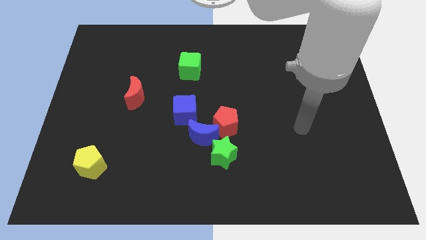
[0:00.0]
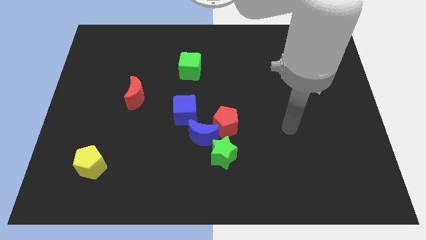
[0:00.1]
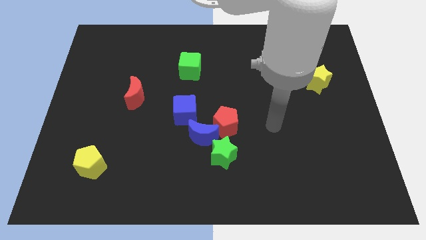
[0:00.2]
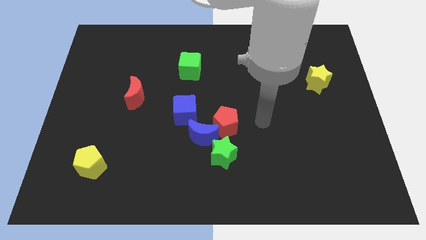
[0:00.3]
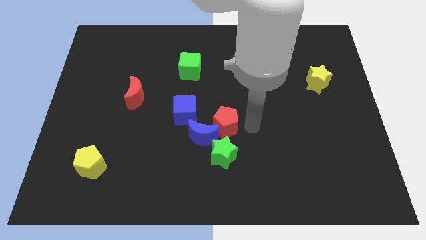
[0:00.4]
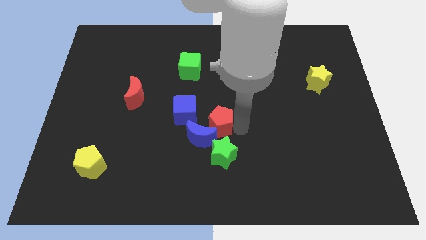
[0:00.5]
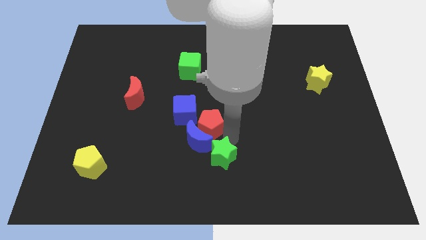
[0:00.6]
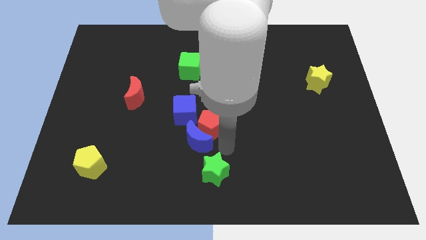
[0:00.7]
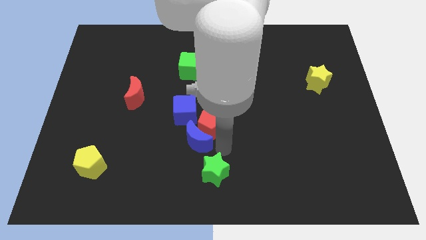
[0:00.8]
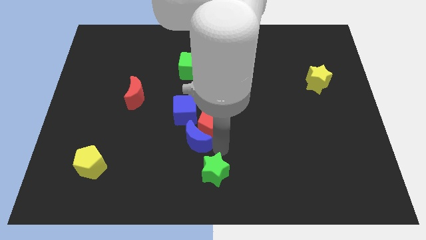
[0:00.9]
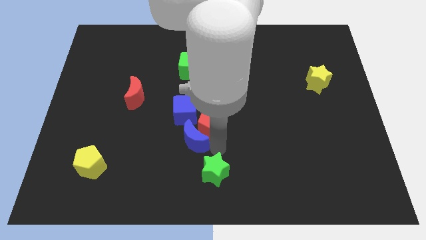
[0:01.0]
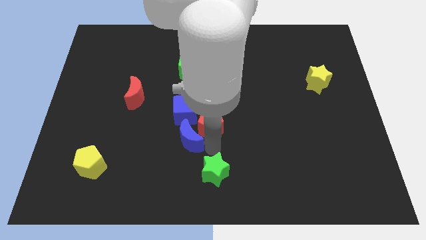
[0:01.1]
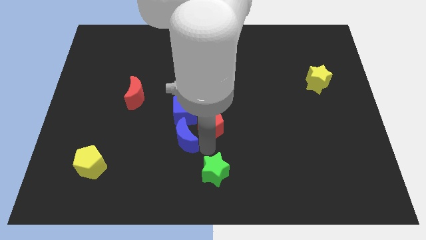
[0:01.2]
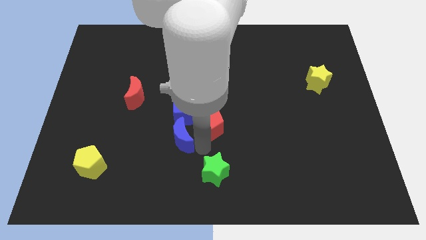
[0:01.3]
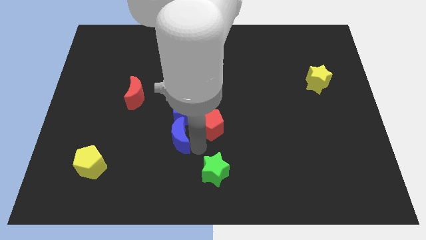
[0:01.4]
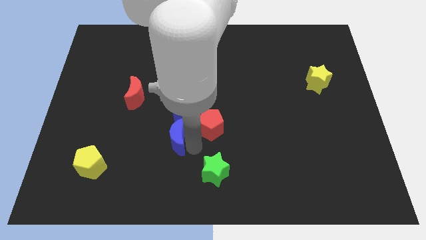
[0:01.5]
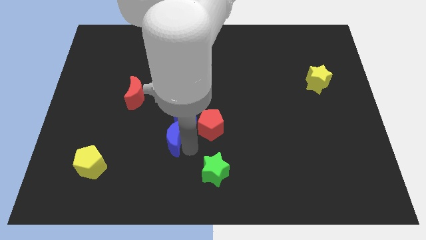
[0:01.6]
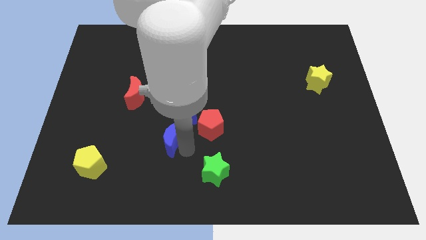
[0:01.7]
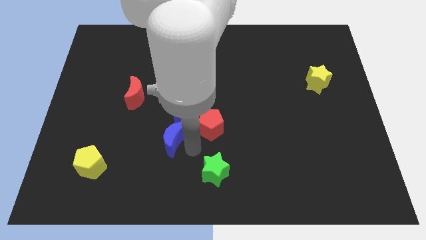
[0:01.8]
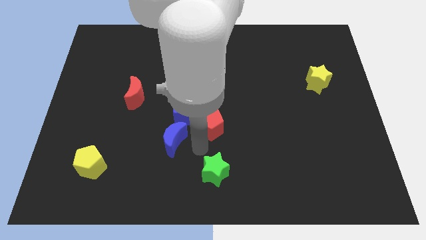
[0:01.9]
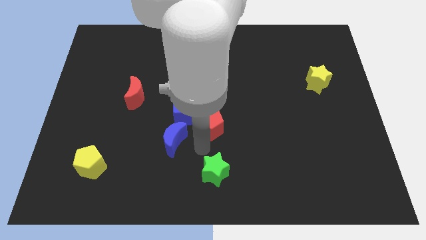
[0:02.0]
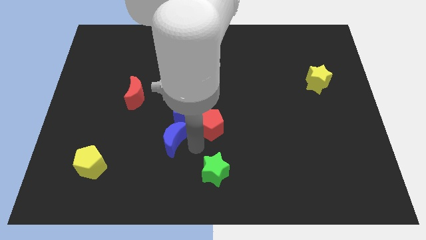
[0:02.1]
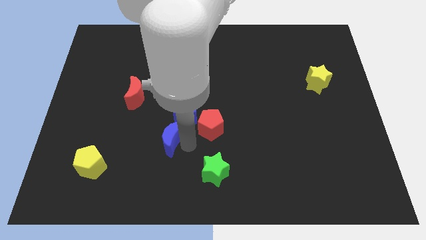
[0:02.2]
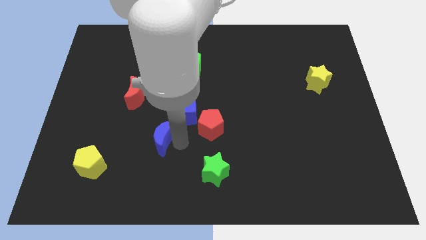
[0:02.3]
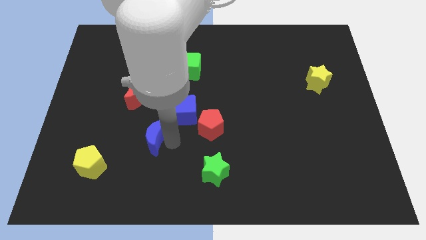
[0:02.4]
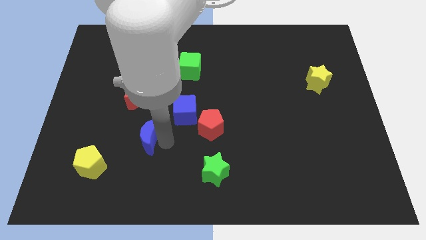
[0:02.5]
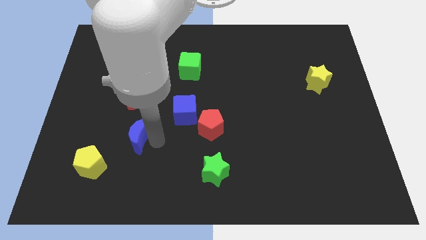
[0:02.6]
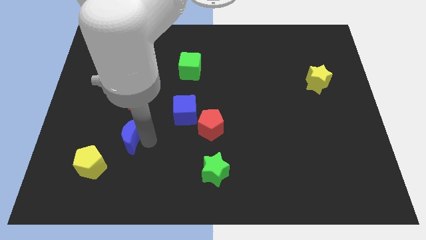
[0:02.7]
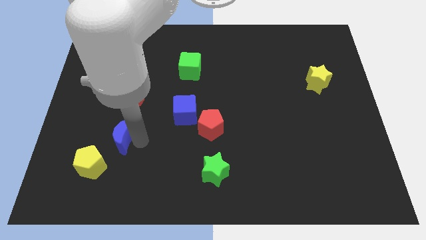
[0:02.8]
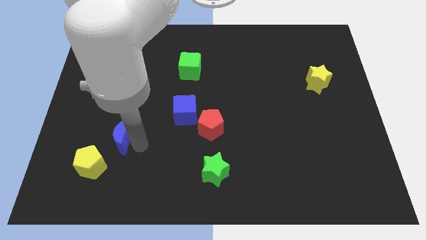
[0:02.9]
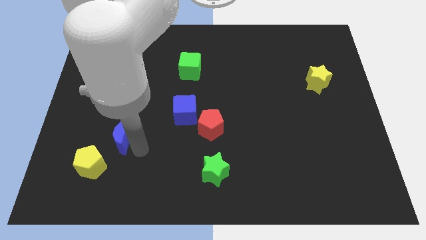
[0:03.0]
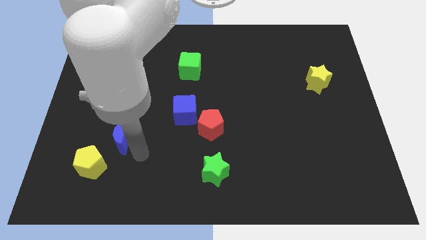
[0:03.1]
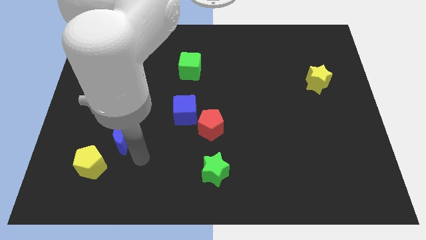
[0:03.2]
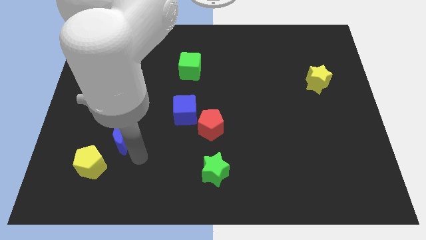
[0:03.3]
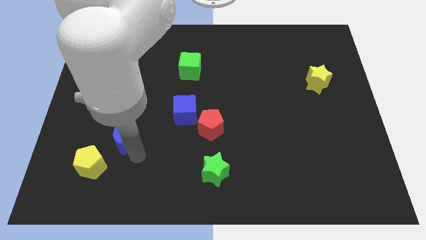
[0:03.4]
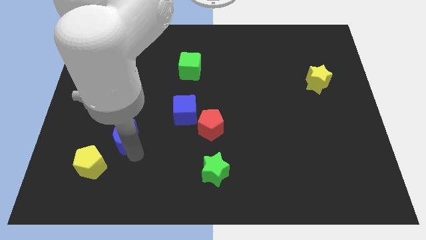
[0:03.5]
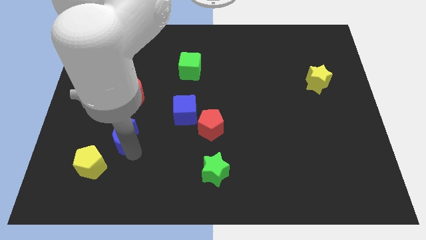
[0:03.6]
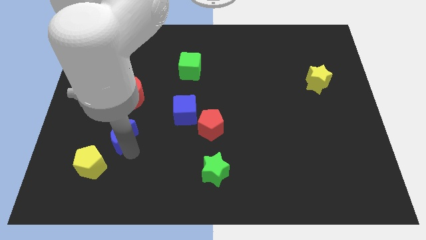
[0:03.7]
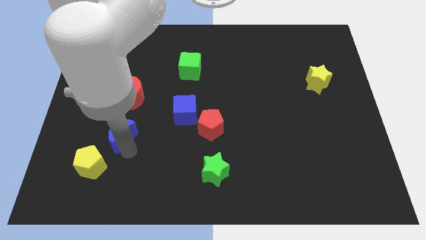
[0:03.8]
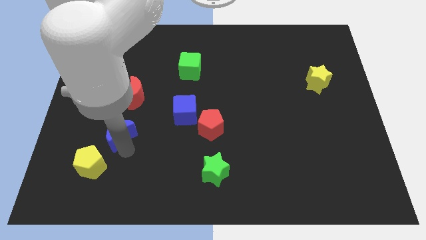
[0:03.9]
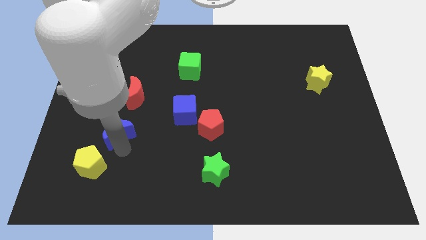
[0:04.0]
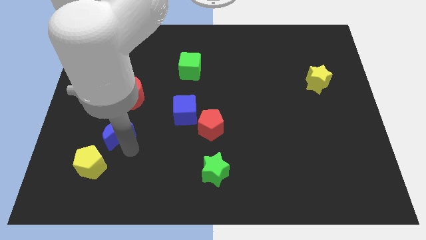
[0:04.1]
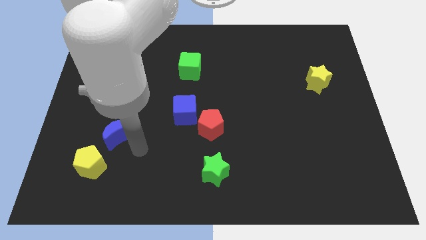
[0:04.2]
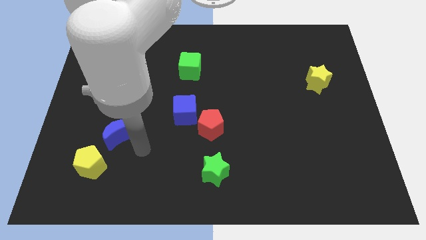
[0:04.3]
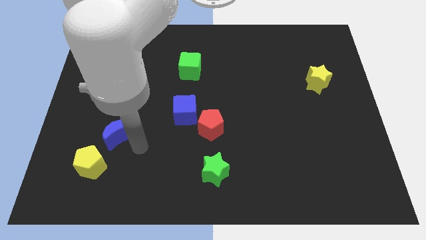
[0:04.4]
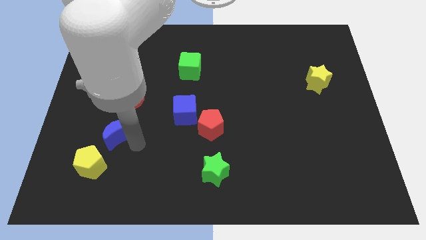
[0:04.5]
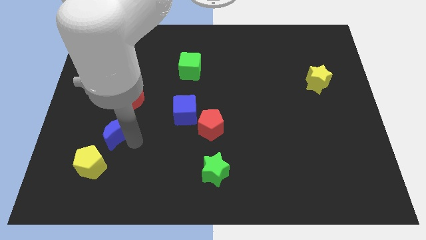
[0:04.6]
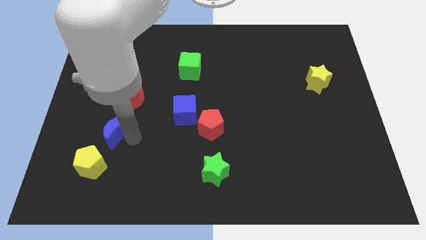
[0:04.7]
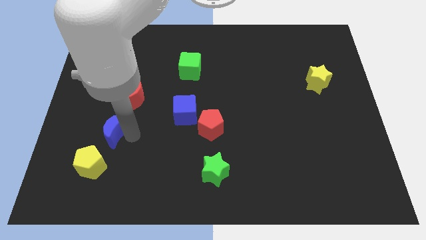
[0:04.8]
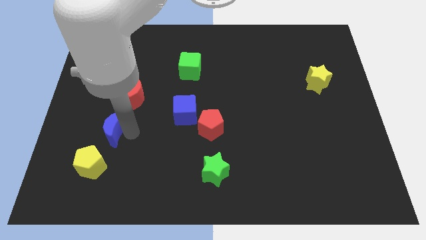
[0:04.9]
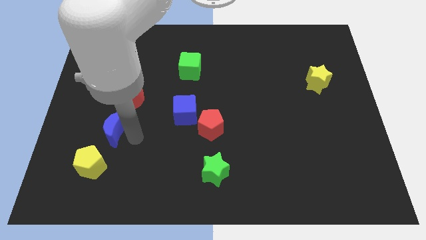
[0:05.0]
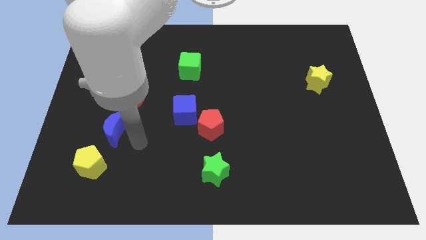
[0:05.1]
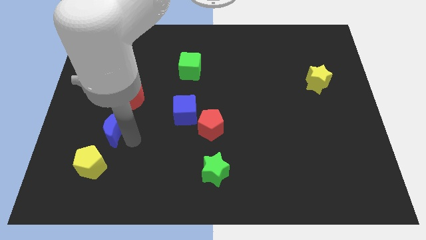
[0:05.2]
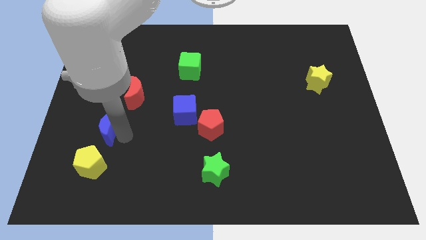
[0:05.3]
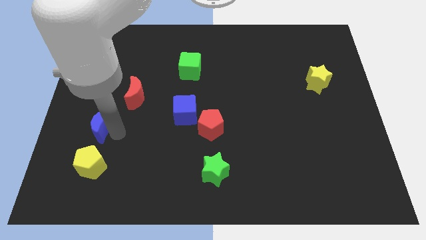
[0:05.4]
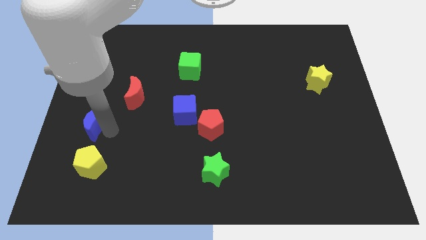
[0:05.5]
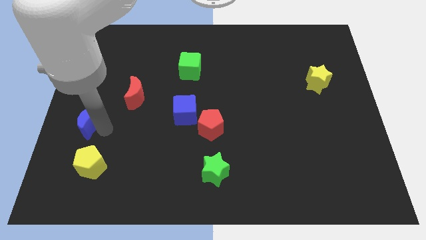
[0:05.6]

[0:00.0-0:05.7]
slide the blue moon to the left side

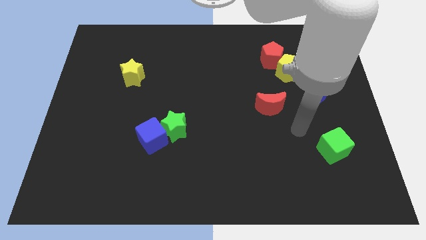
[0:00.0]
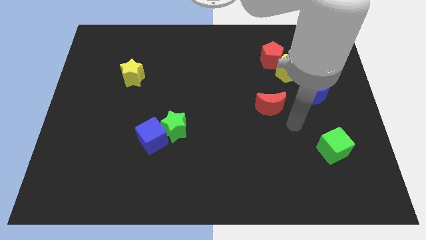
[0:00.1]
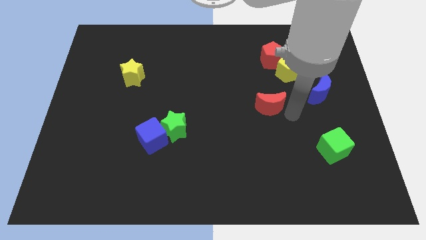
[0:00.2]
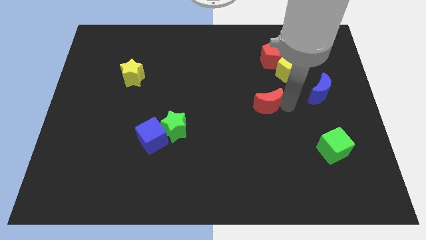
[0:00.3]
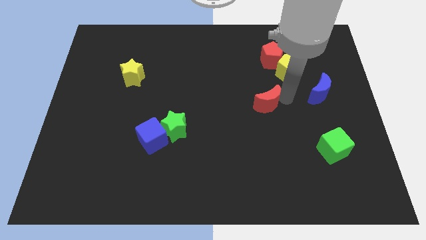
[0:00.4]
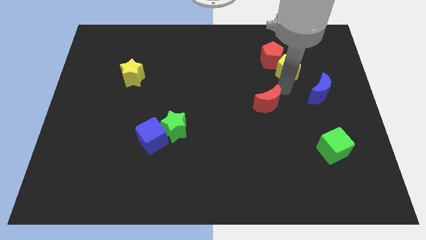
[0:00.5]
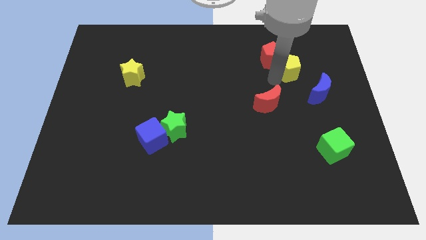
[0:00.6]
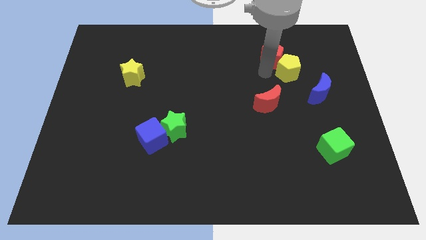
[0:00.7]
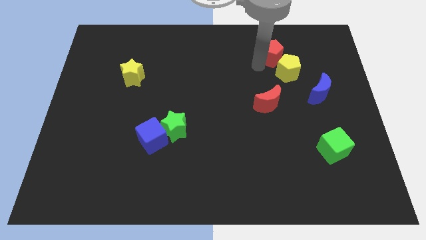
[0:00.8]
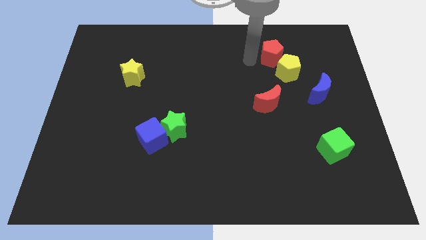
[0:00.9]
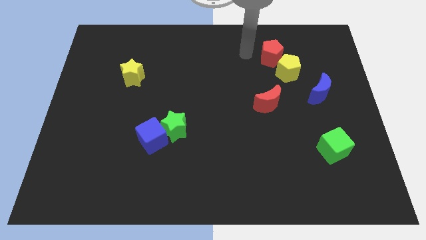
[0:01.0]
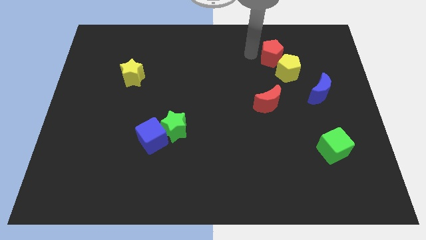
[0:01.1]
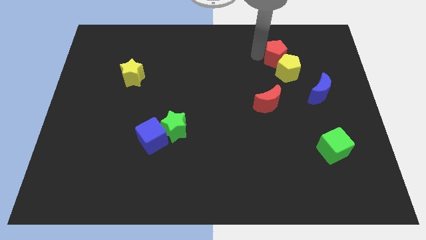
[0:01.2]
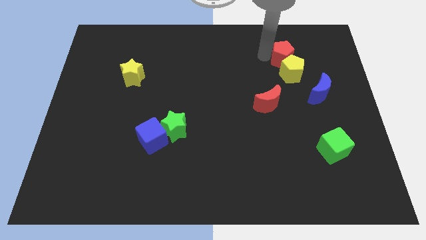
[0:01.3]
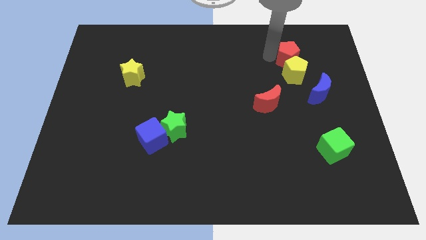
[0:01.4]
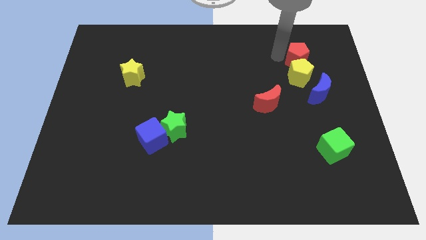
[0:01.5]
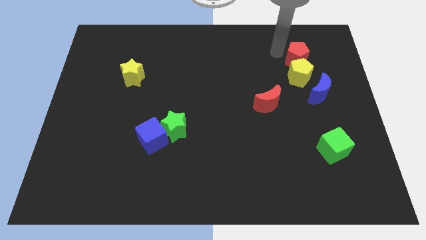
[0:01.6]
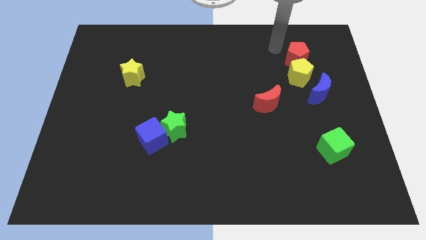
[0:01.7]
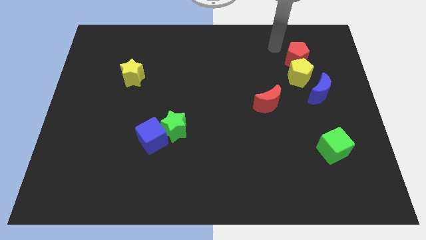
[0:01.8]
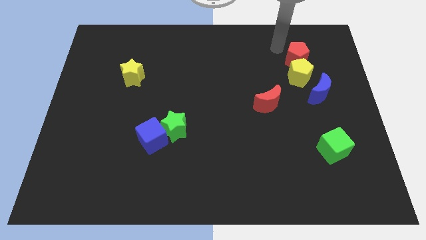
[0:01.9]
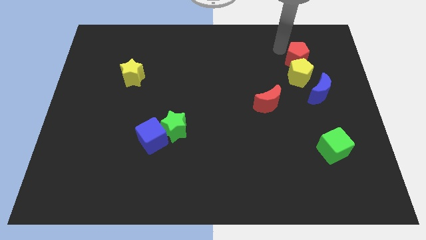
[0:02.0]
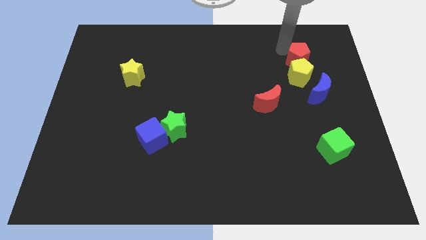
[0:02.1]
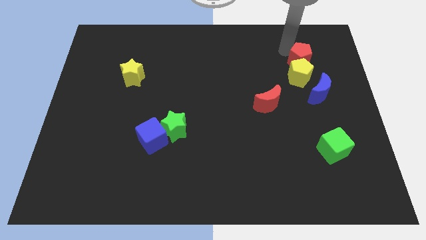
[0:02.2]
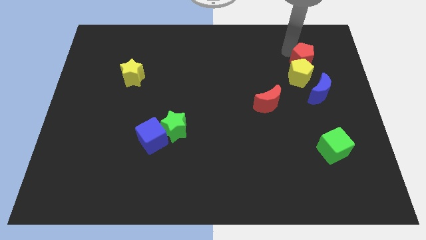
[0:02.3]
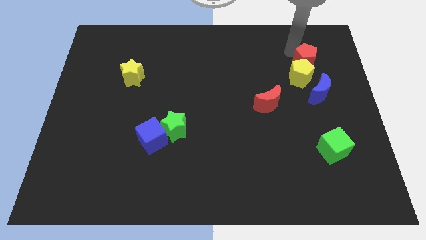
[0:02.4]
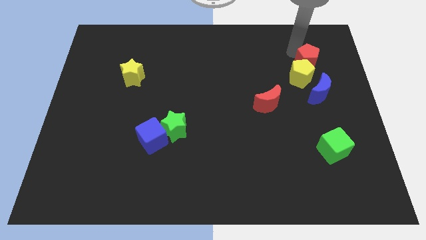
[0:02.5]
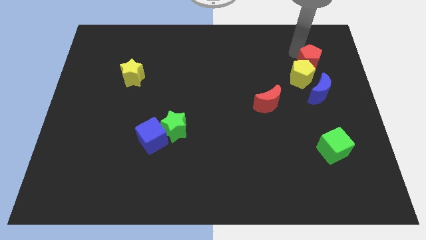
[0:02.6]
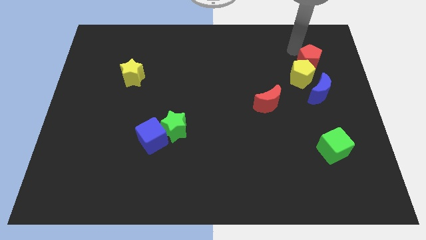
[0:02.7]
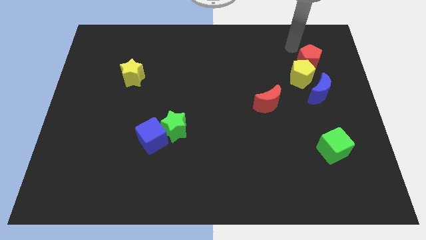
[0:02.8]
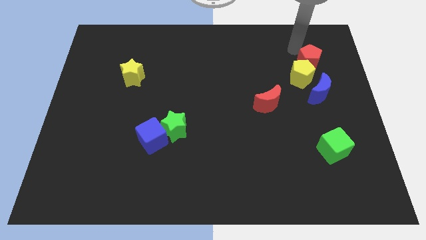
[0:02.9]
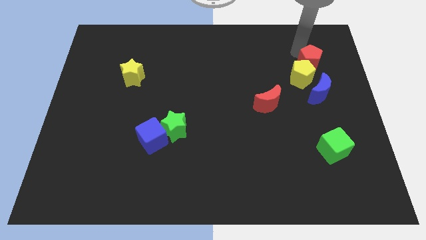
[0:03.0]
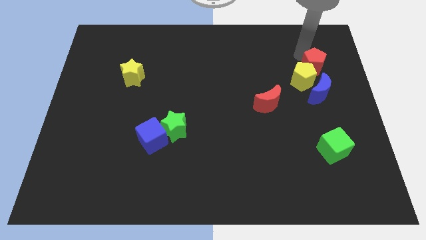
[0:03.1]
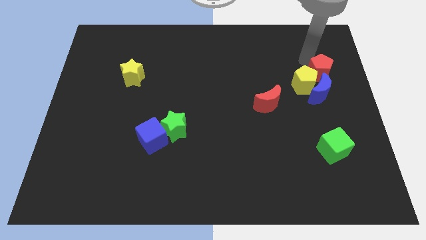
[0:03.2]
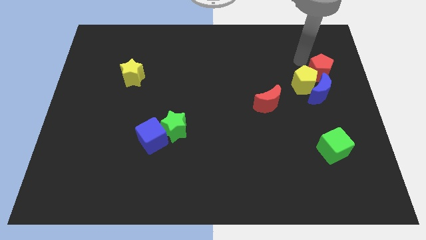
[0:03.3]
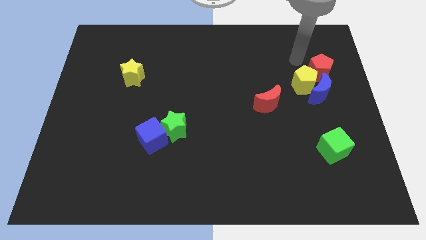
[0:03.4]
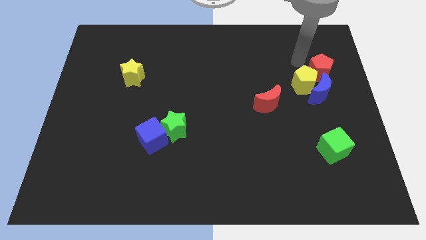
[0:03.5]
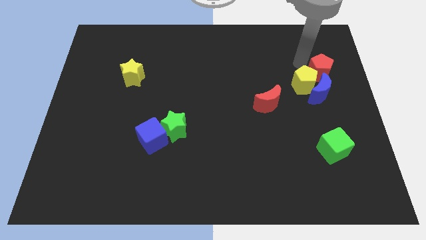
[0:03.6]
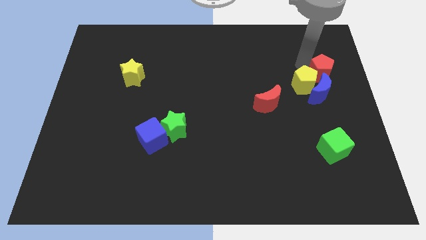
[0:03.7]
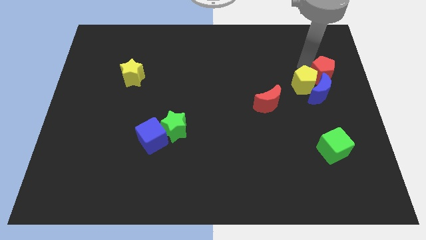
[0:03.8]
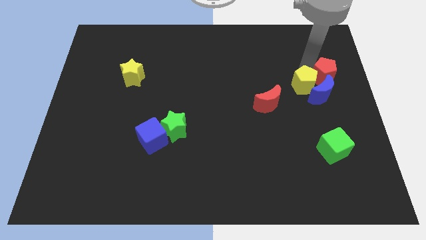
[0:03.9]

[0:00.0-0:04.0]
move the red pentagon to the center right
